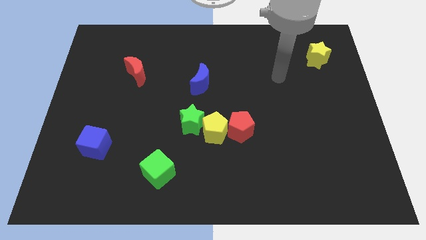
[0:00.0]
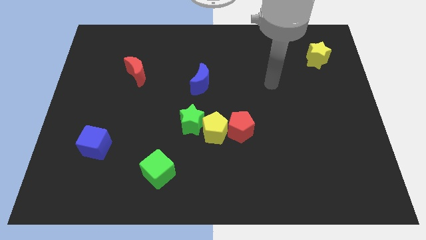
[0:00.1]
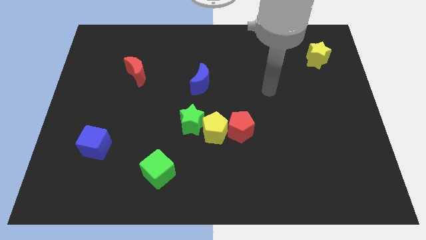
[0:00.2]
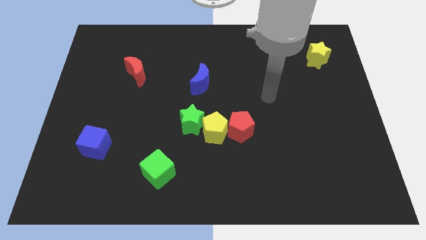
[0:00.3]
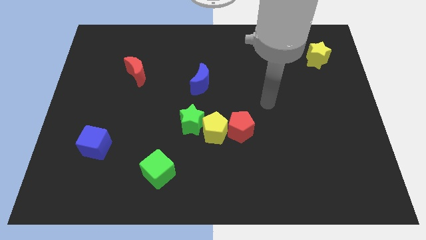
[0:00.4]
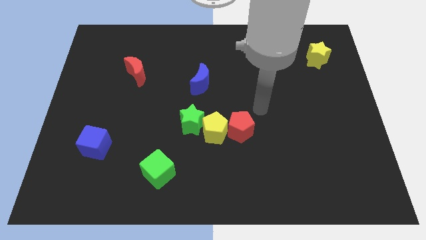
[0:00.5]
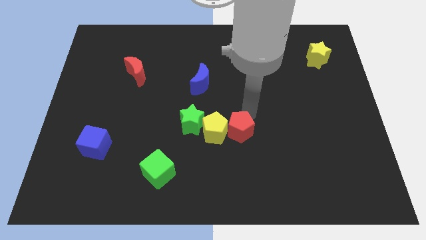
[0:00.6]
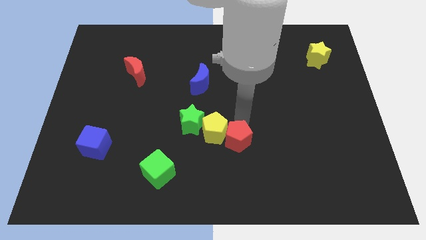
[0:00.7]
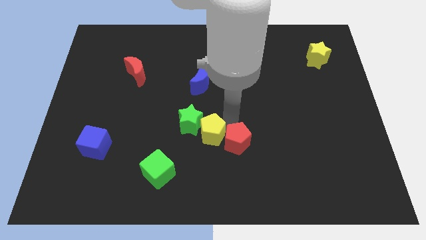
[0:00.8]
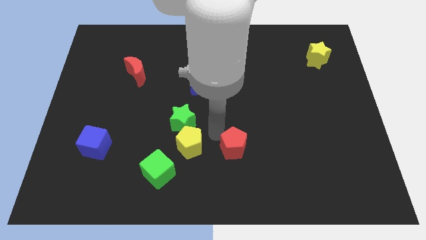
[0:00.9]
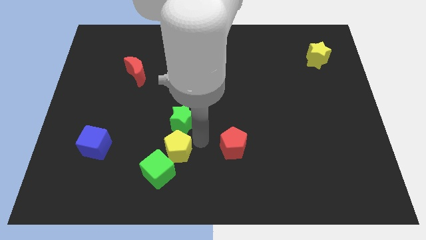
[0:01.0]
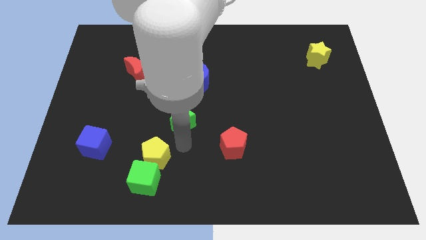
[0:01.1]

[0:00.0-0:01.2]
separate the green star from the yellow pentagon

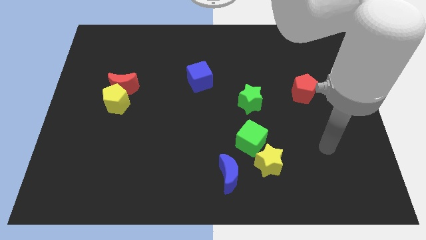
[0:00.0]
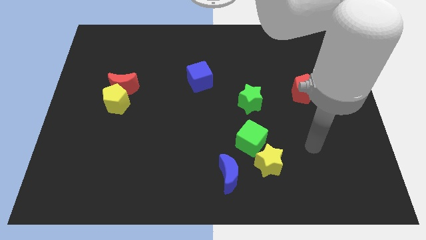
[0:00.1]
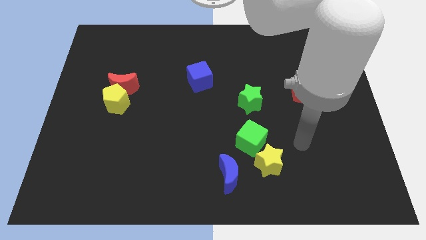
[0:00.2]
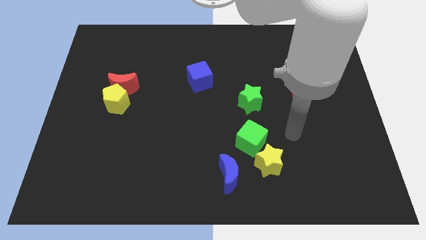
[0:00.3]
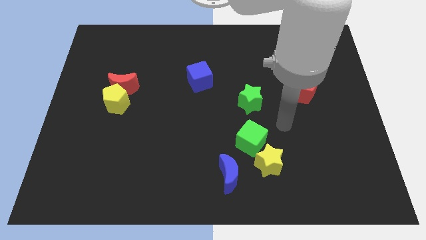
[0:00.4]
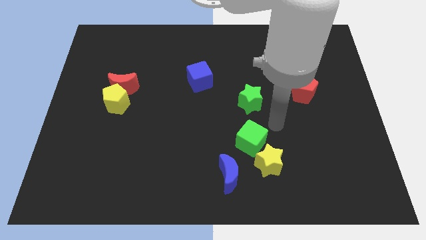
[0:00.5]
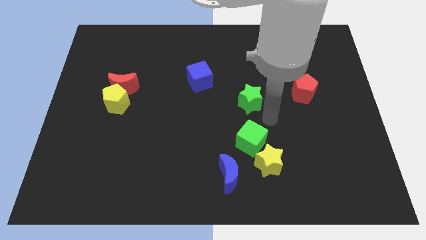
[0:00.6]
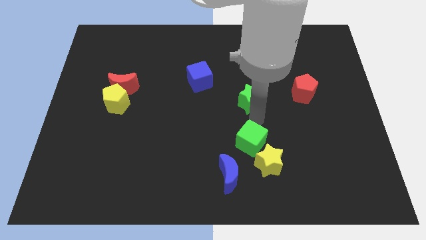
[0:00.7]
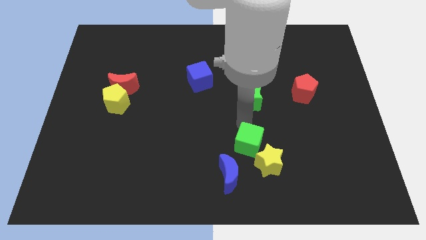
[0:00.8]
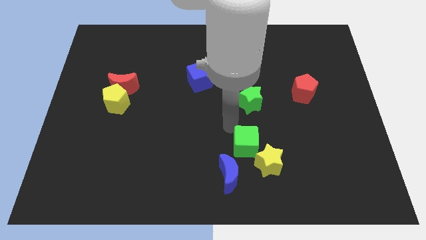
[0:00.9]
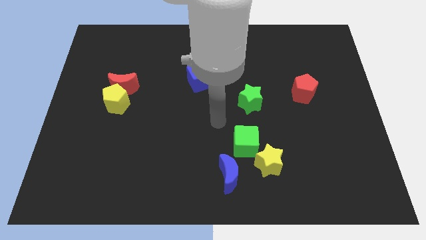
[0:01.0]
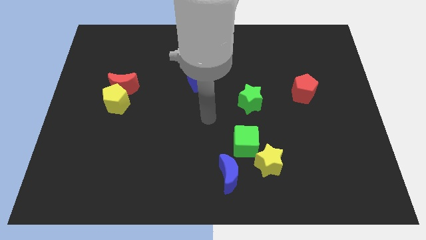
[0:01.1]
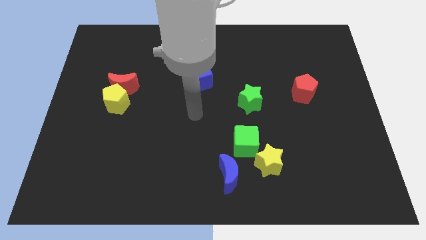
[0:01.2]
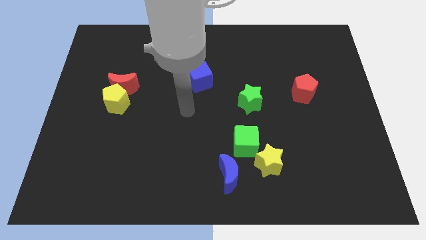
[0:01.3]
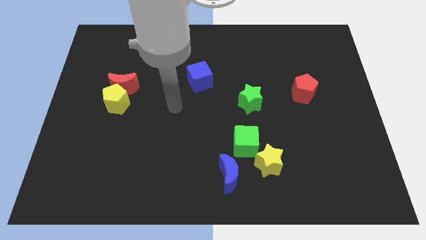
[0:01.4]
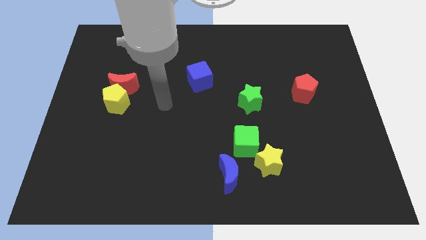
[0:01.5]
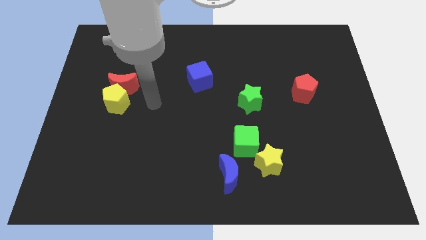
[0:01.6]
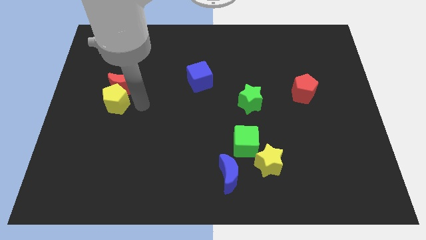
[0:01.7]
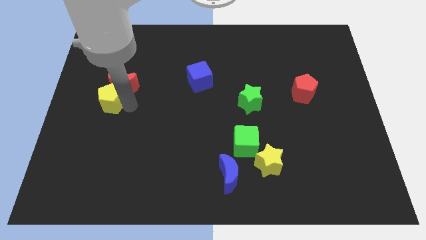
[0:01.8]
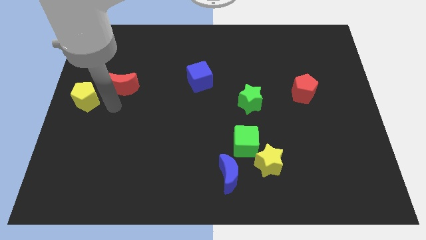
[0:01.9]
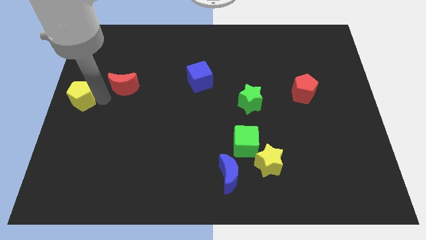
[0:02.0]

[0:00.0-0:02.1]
move the red moon away from the yellow pentagon

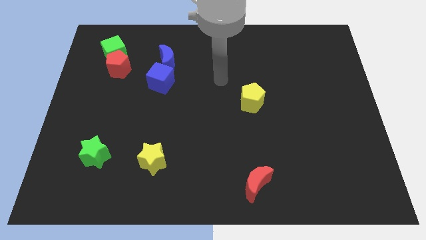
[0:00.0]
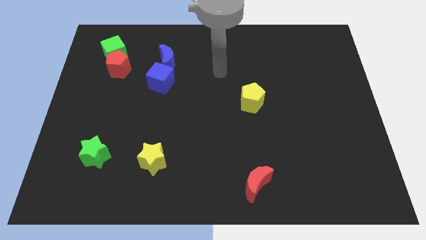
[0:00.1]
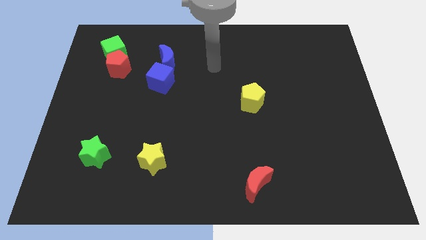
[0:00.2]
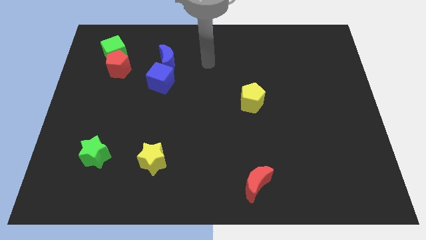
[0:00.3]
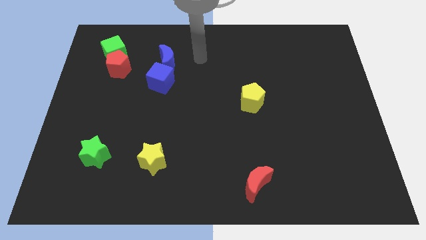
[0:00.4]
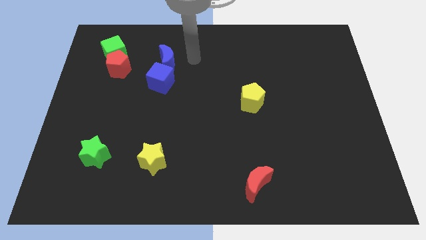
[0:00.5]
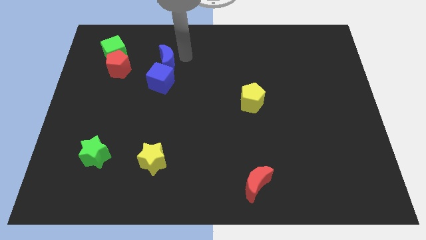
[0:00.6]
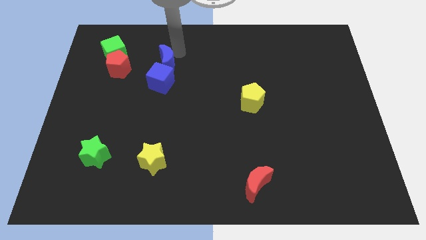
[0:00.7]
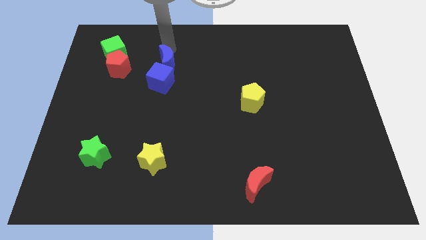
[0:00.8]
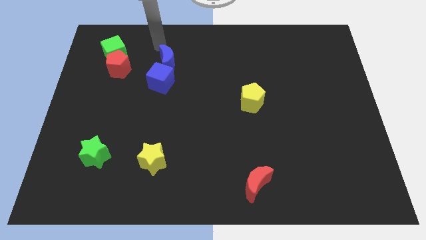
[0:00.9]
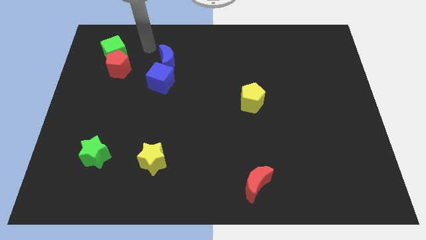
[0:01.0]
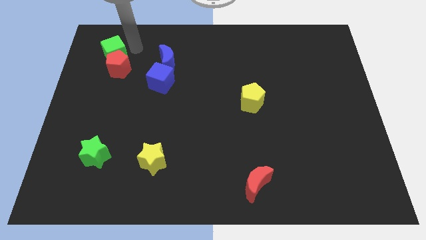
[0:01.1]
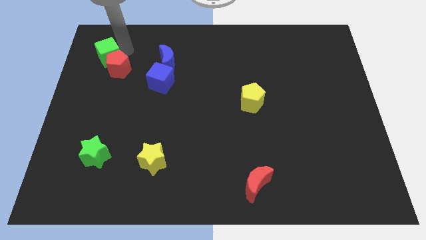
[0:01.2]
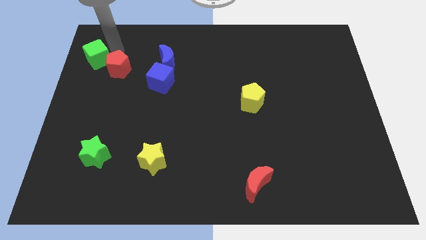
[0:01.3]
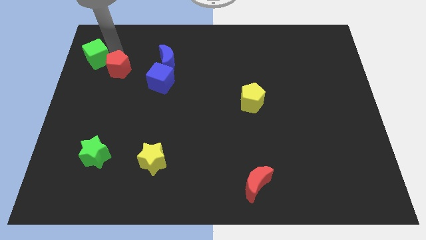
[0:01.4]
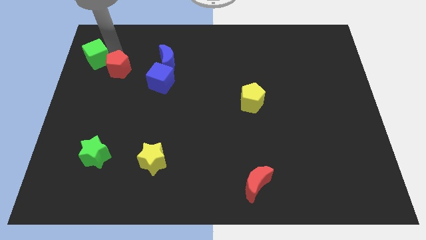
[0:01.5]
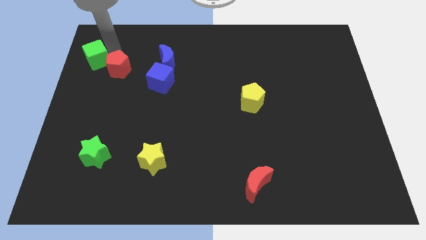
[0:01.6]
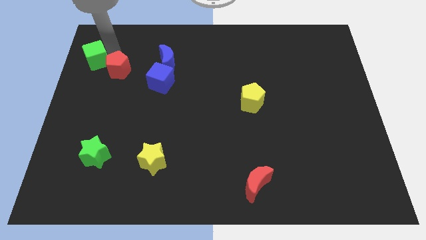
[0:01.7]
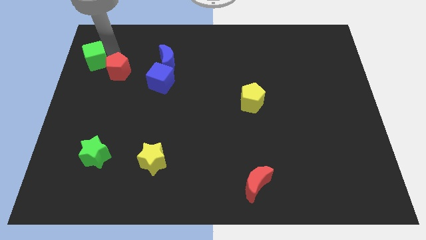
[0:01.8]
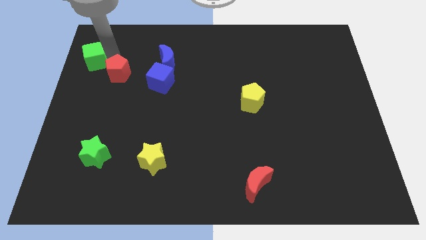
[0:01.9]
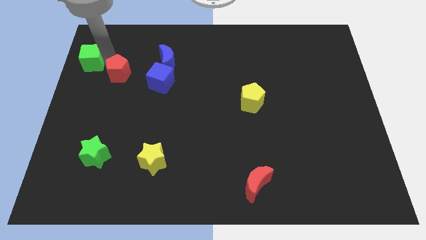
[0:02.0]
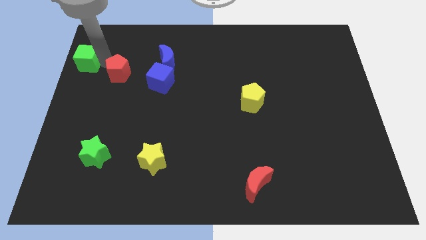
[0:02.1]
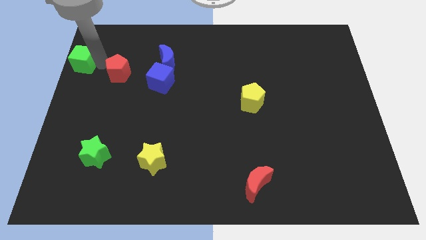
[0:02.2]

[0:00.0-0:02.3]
separate the red pentagon from the green cube

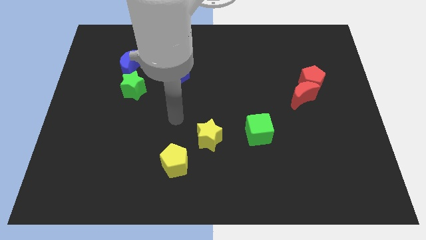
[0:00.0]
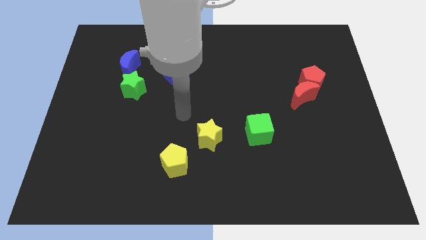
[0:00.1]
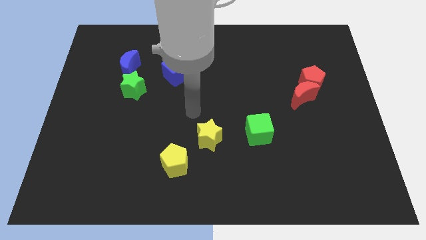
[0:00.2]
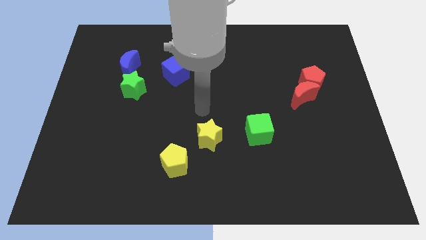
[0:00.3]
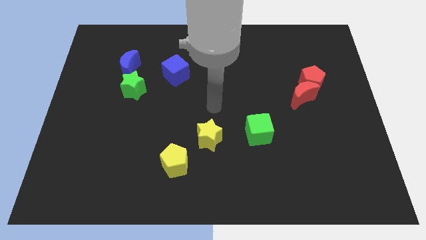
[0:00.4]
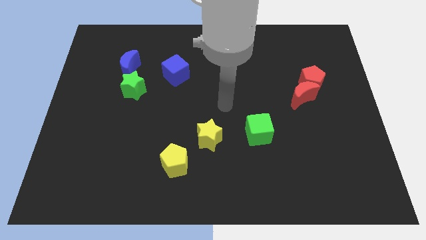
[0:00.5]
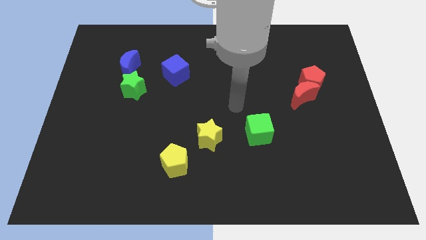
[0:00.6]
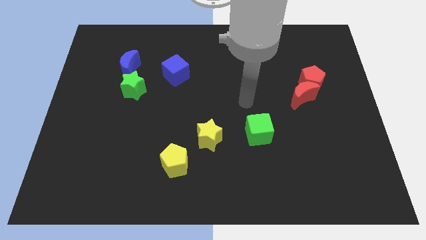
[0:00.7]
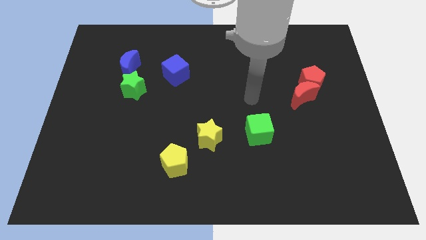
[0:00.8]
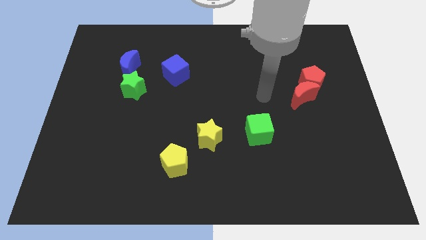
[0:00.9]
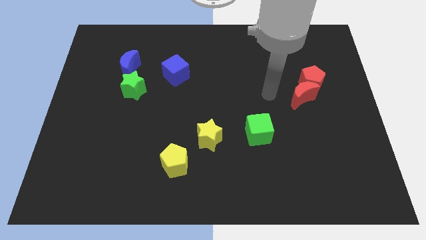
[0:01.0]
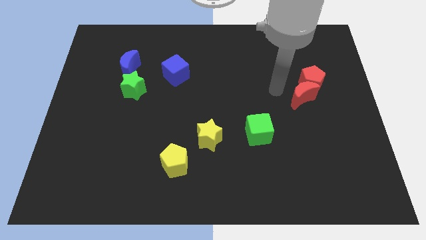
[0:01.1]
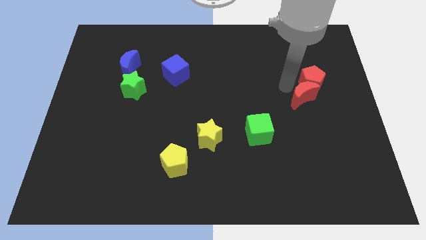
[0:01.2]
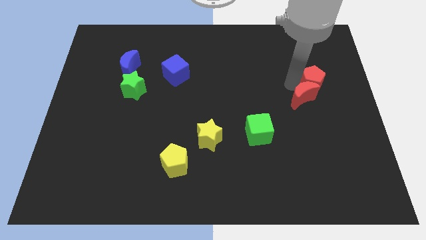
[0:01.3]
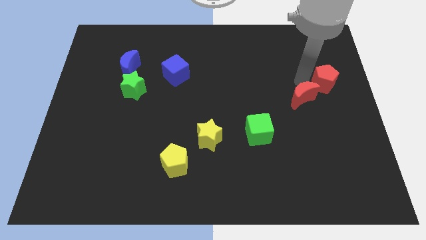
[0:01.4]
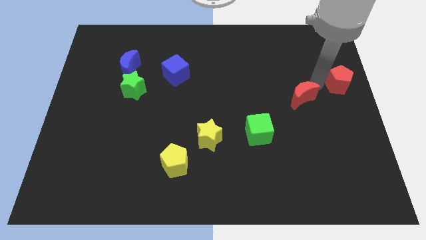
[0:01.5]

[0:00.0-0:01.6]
pull the red moon apart from the red pentagon

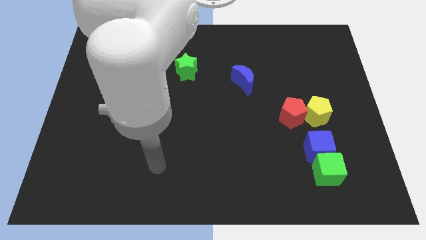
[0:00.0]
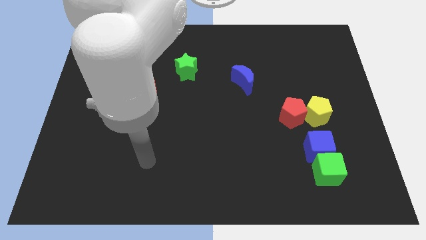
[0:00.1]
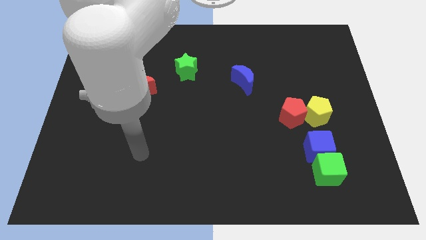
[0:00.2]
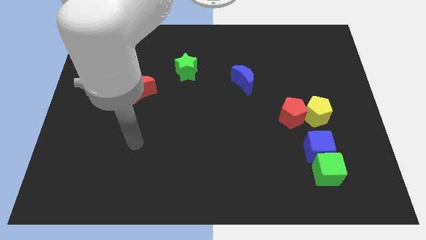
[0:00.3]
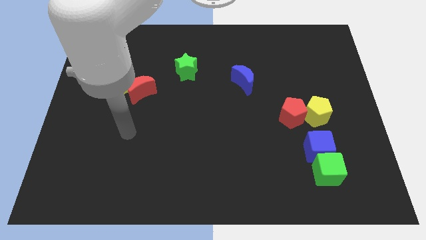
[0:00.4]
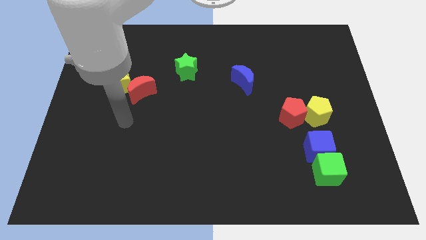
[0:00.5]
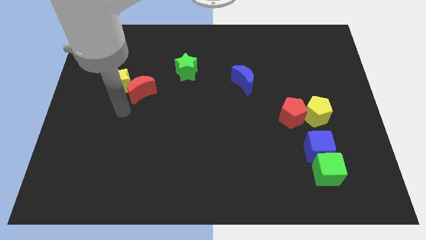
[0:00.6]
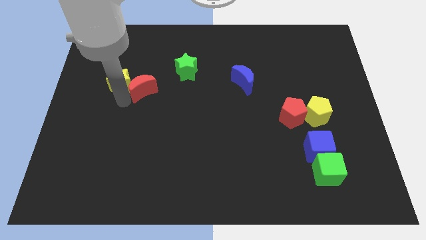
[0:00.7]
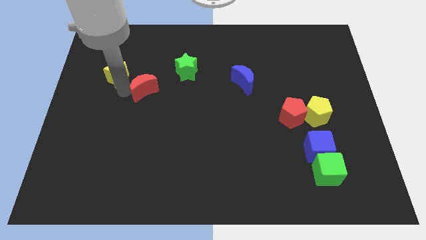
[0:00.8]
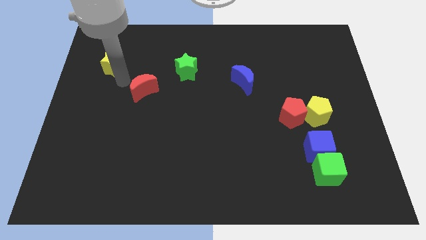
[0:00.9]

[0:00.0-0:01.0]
separate the red moon from the yellow star

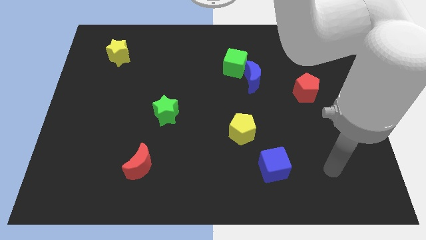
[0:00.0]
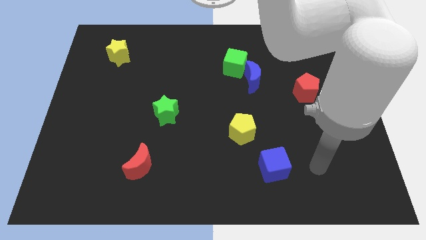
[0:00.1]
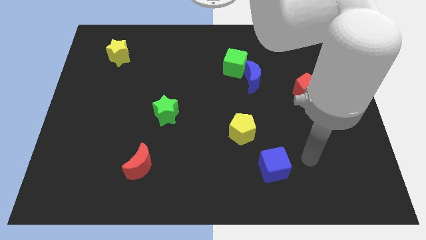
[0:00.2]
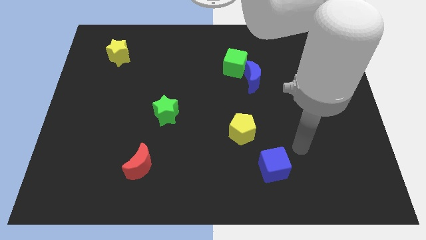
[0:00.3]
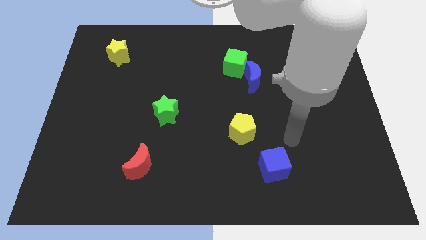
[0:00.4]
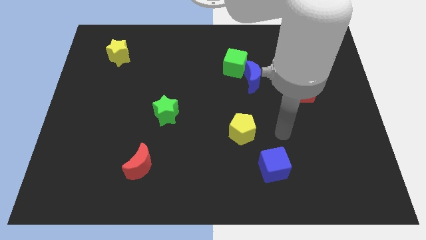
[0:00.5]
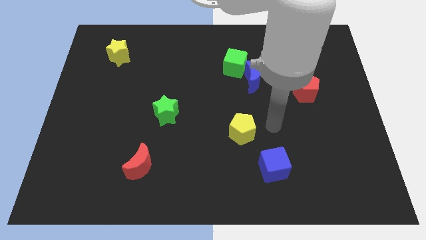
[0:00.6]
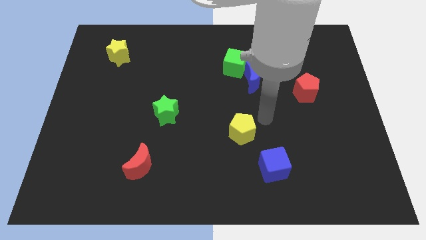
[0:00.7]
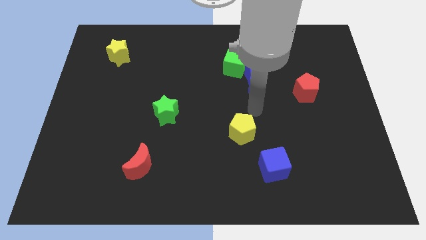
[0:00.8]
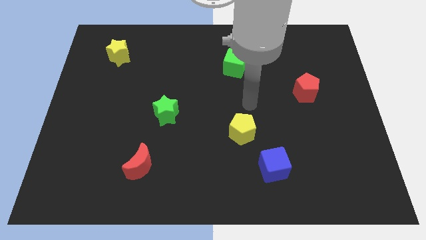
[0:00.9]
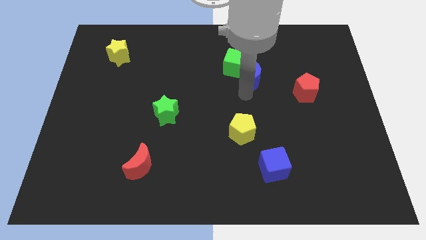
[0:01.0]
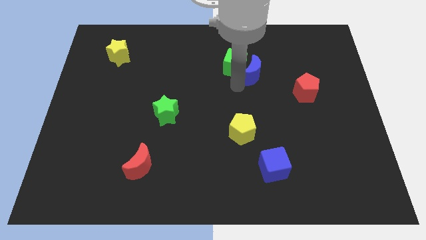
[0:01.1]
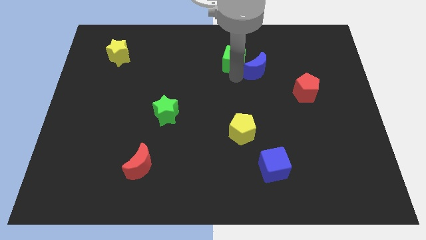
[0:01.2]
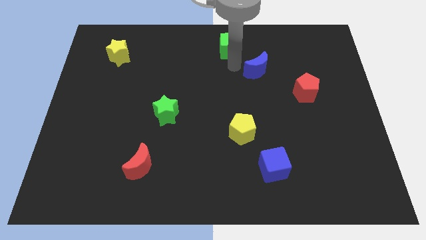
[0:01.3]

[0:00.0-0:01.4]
move the blue moon away from the green cube
